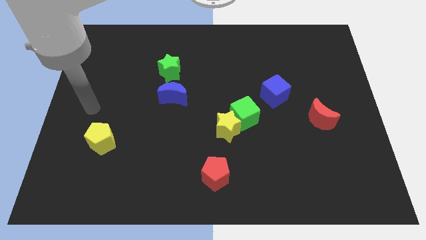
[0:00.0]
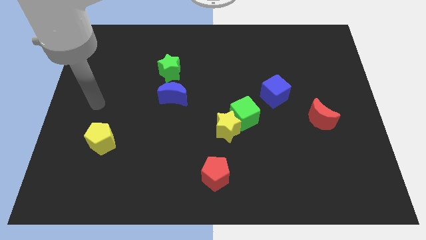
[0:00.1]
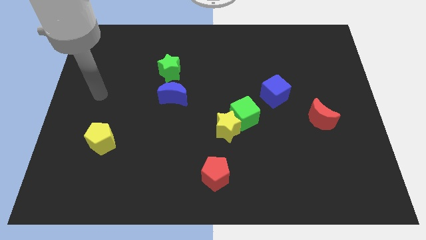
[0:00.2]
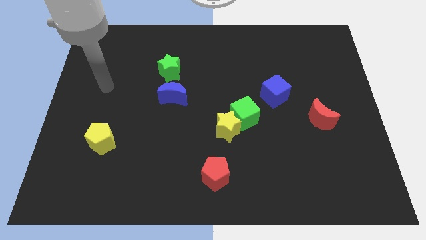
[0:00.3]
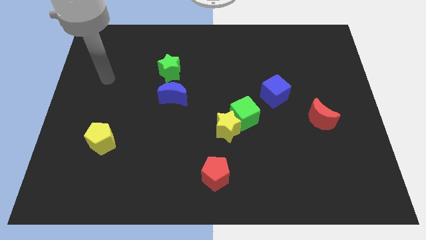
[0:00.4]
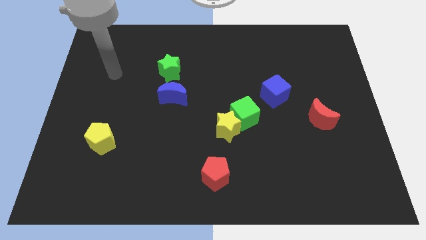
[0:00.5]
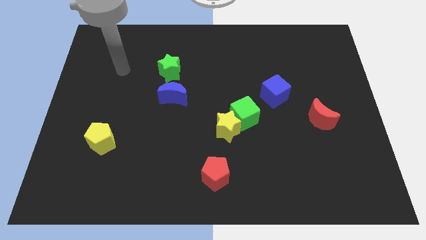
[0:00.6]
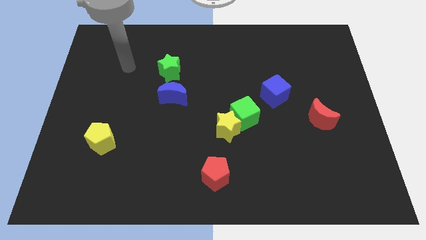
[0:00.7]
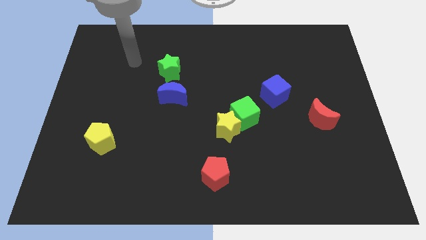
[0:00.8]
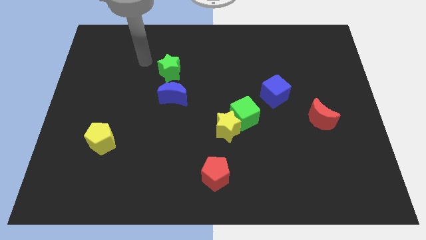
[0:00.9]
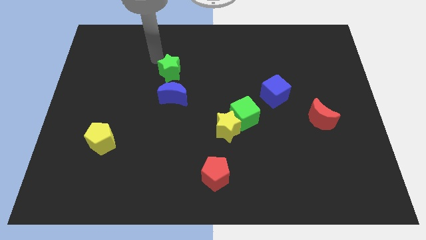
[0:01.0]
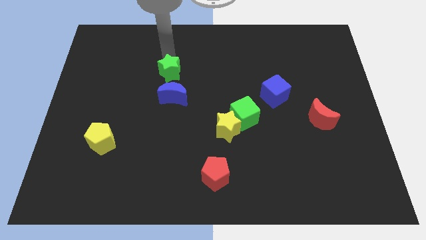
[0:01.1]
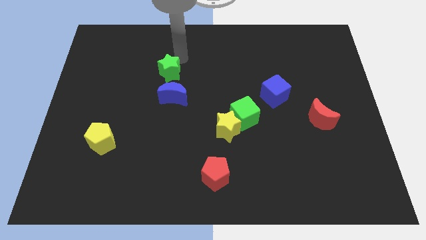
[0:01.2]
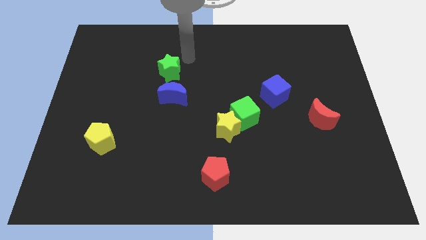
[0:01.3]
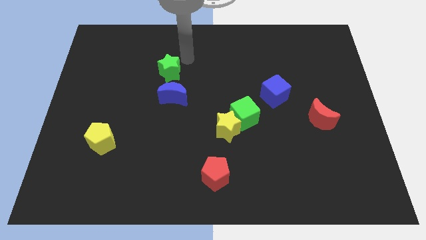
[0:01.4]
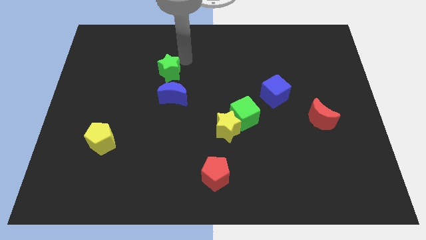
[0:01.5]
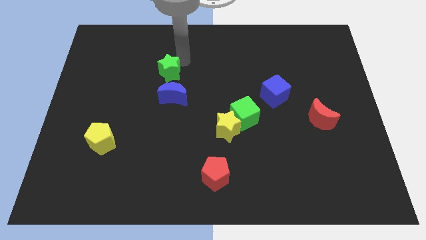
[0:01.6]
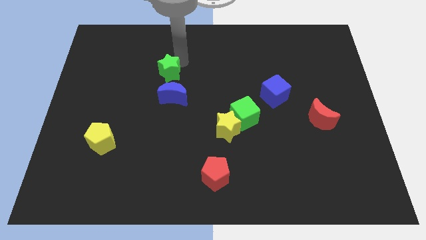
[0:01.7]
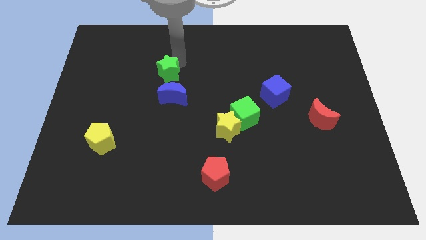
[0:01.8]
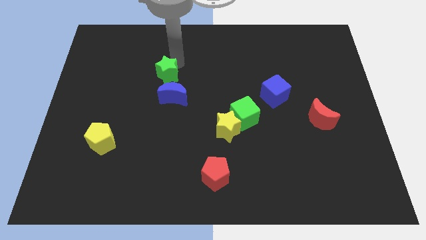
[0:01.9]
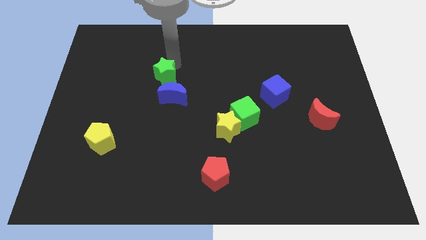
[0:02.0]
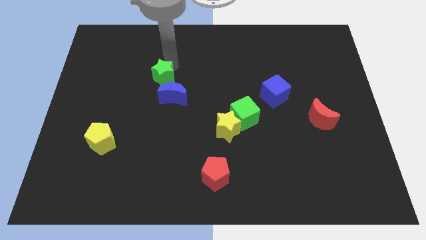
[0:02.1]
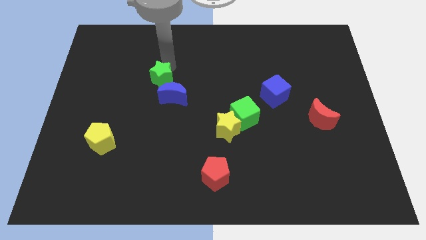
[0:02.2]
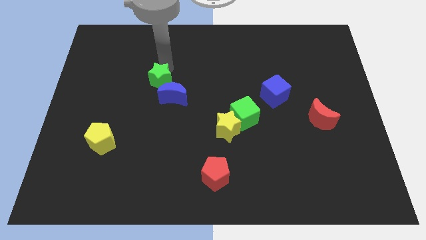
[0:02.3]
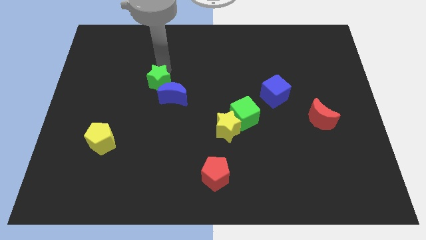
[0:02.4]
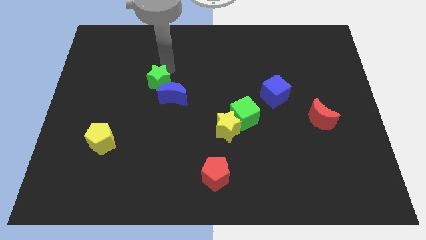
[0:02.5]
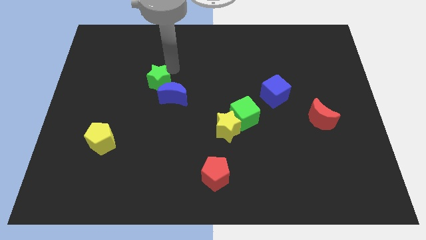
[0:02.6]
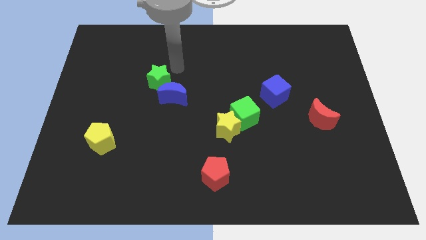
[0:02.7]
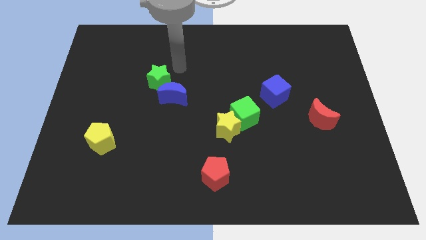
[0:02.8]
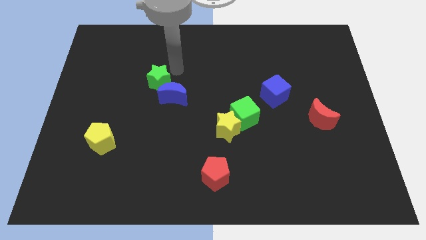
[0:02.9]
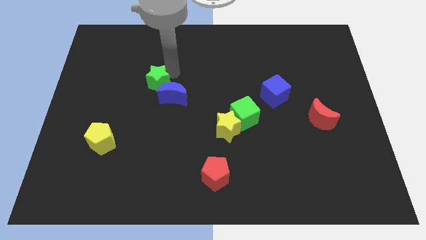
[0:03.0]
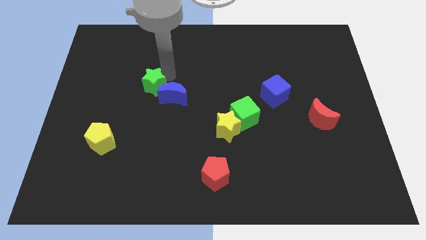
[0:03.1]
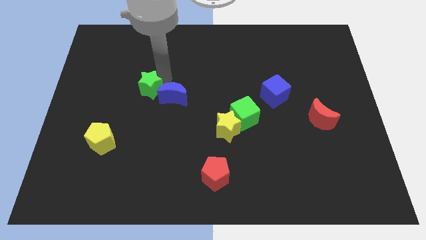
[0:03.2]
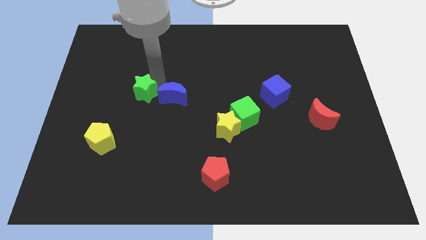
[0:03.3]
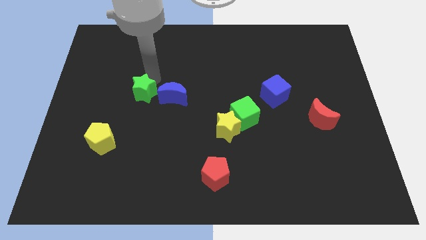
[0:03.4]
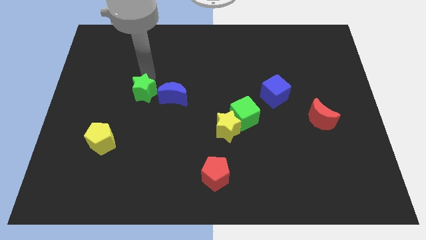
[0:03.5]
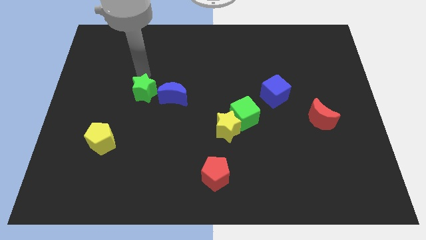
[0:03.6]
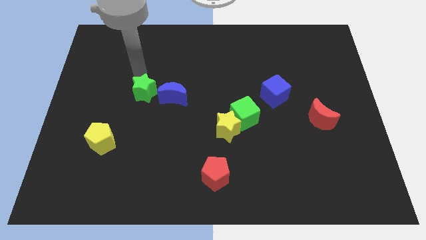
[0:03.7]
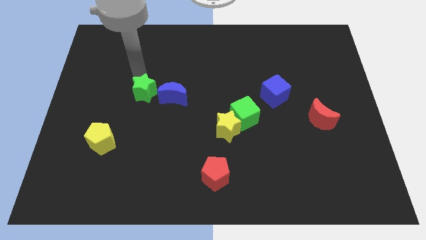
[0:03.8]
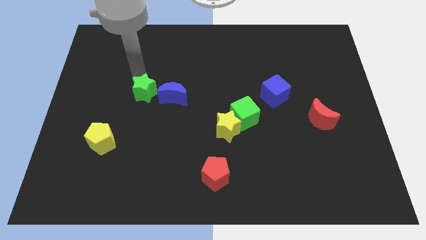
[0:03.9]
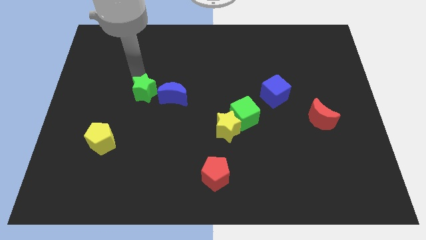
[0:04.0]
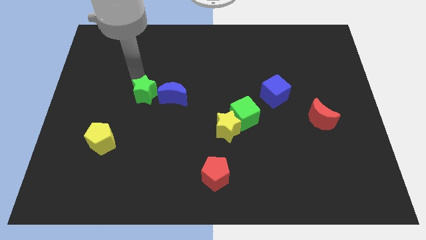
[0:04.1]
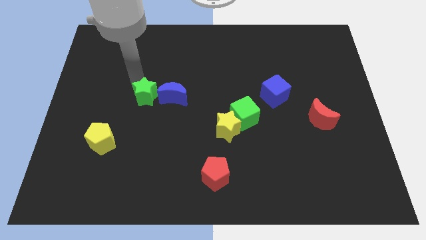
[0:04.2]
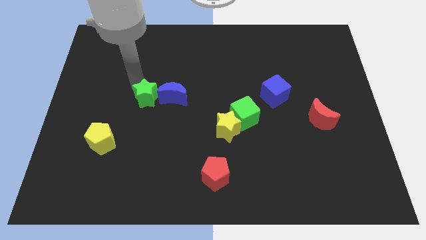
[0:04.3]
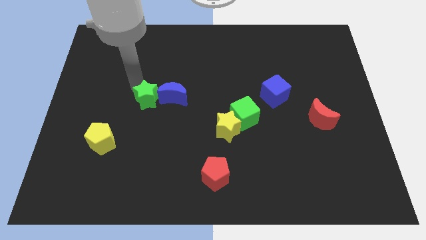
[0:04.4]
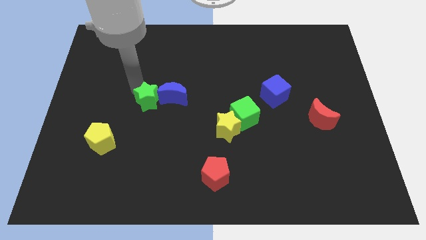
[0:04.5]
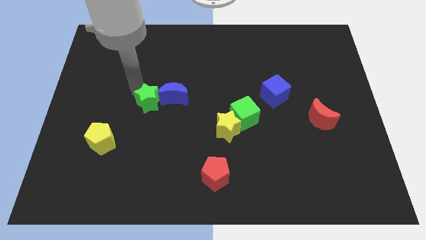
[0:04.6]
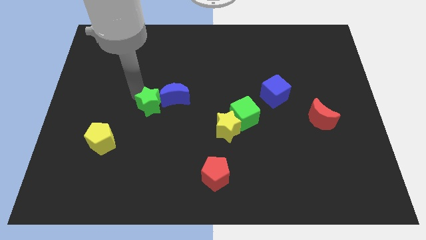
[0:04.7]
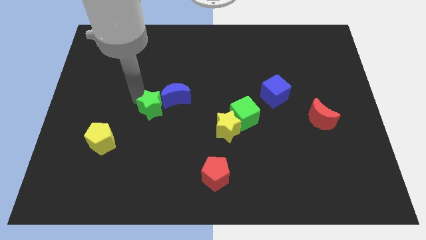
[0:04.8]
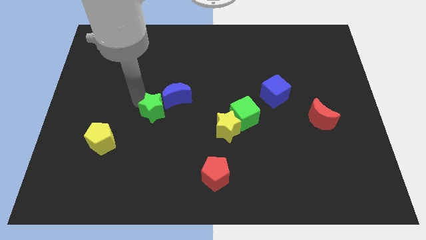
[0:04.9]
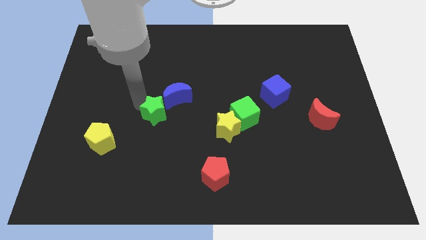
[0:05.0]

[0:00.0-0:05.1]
push the green star to the bottom of the blue moon
